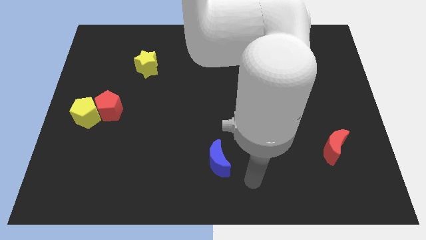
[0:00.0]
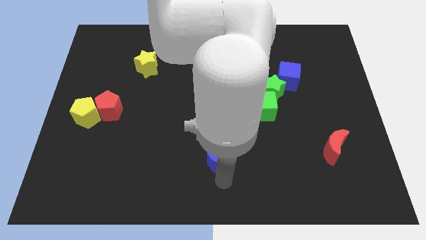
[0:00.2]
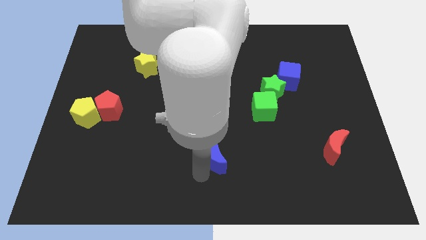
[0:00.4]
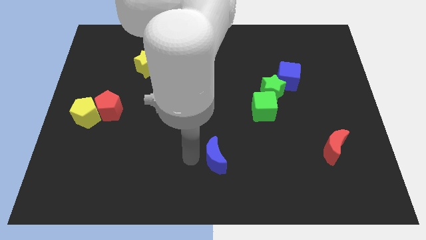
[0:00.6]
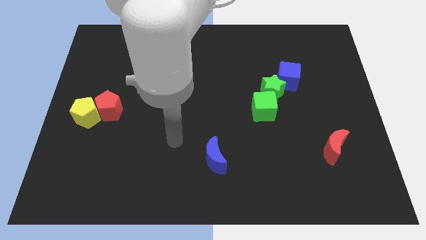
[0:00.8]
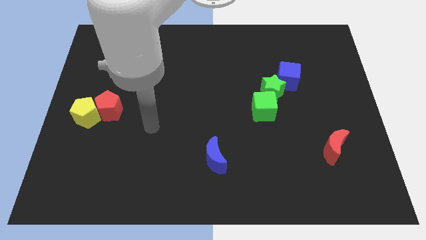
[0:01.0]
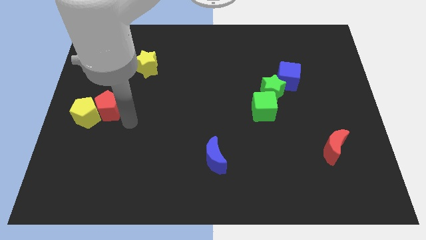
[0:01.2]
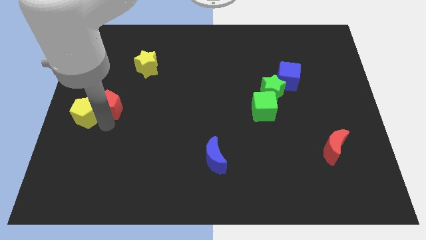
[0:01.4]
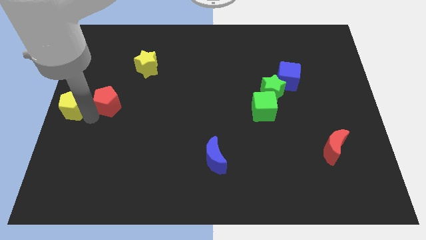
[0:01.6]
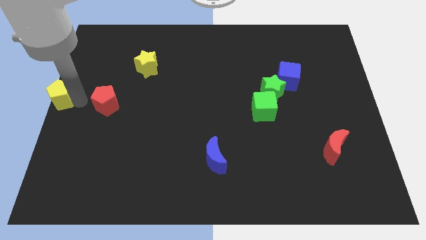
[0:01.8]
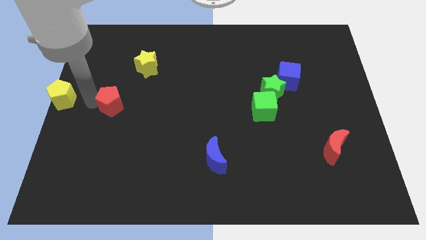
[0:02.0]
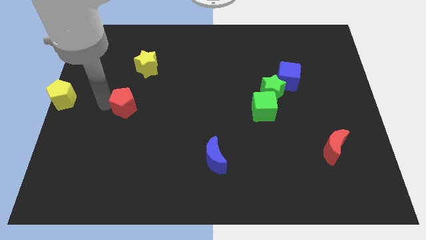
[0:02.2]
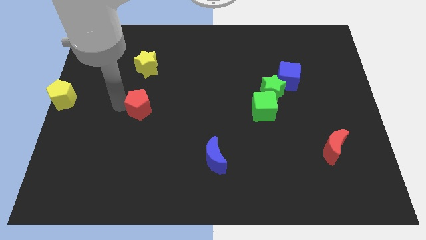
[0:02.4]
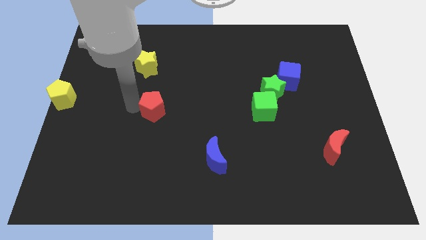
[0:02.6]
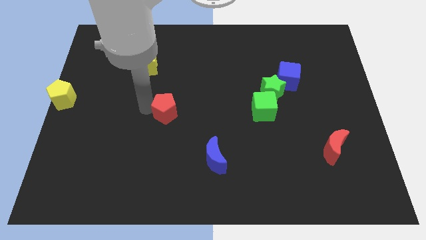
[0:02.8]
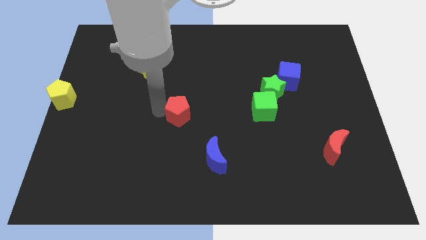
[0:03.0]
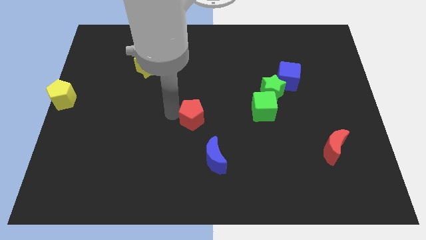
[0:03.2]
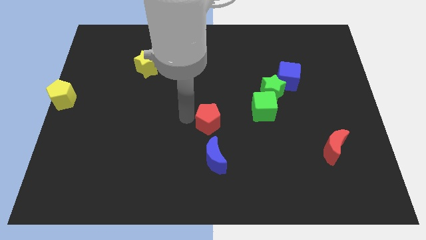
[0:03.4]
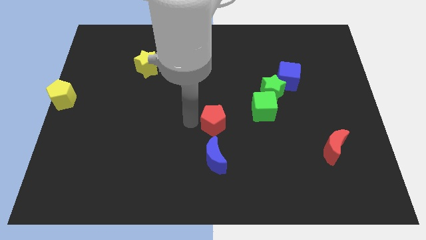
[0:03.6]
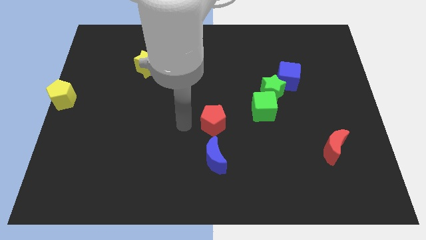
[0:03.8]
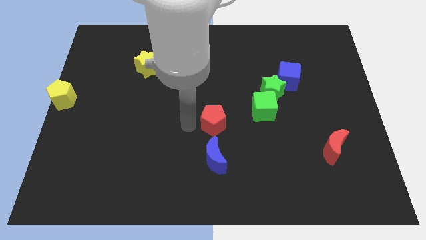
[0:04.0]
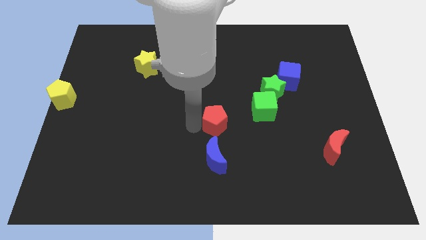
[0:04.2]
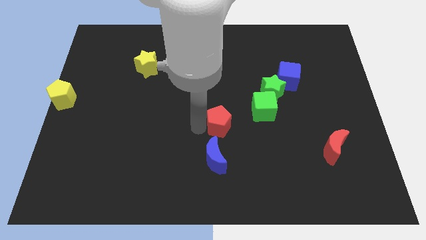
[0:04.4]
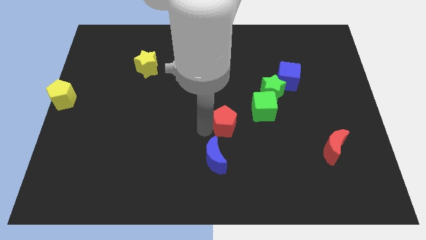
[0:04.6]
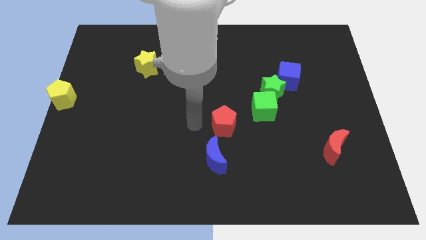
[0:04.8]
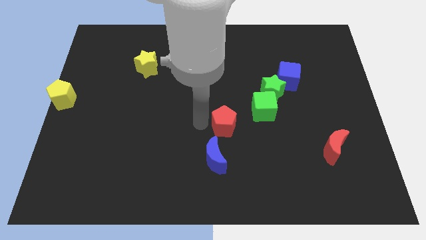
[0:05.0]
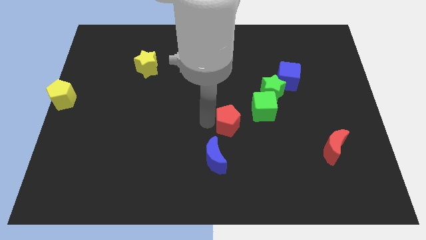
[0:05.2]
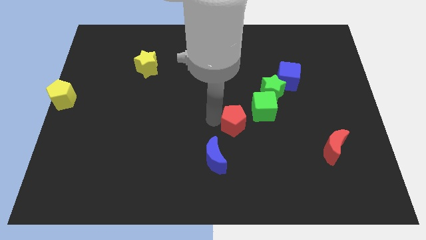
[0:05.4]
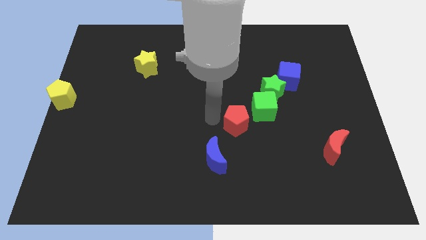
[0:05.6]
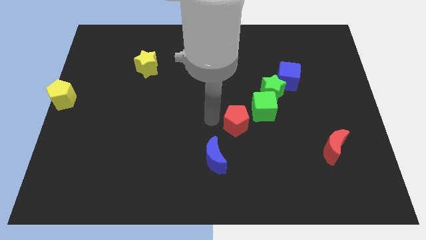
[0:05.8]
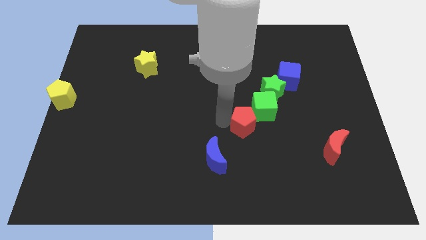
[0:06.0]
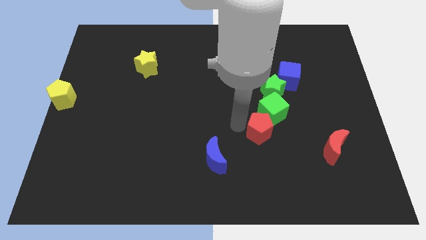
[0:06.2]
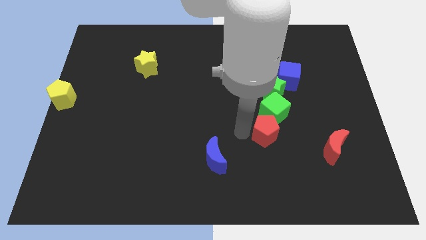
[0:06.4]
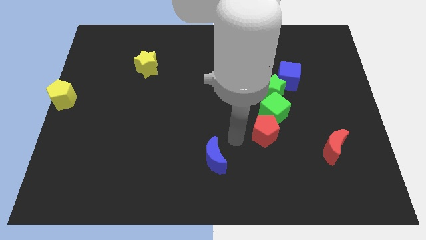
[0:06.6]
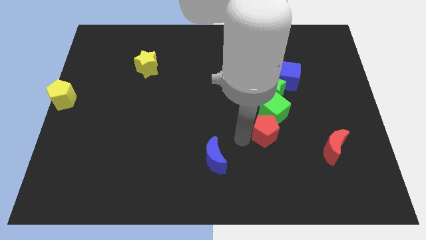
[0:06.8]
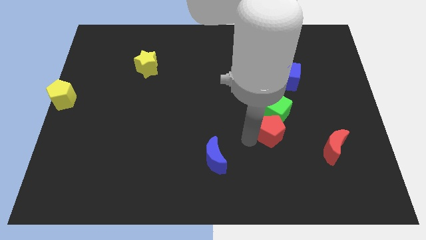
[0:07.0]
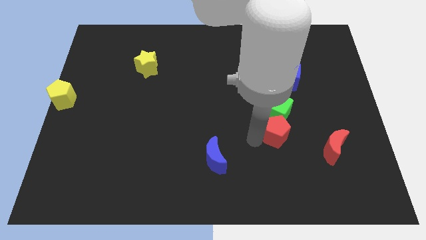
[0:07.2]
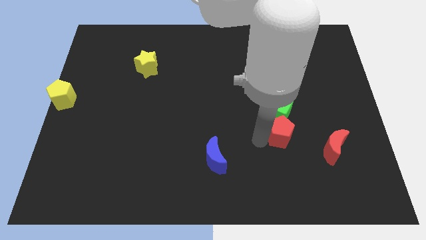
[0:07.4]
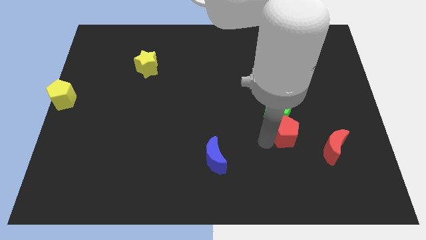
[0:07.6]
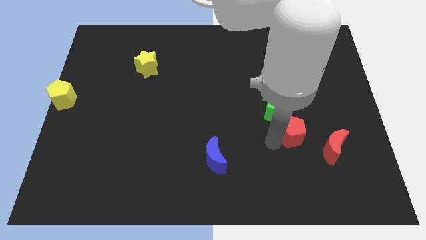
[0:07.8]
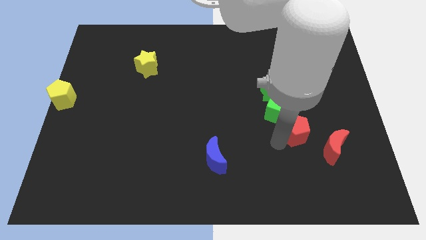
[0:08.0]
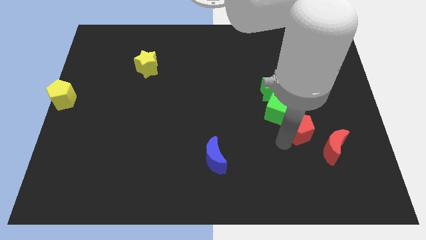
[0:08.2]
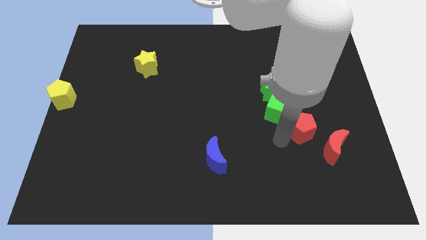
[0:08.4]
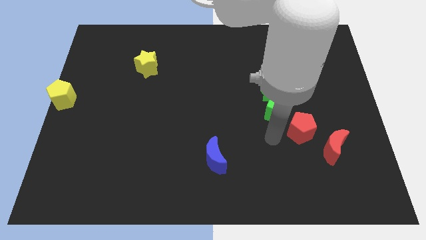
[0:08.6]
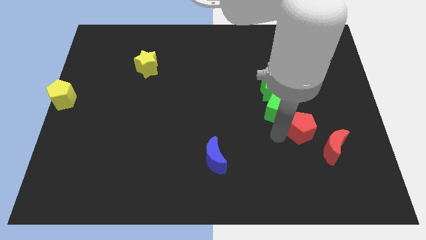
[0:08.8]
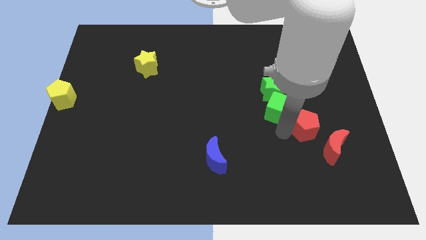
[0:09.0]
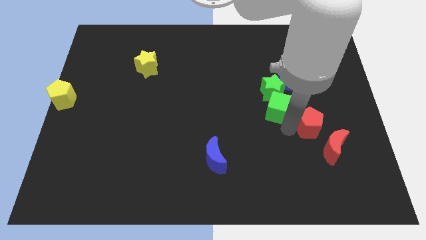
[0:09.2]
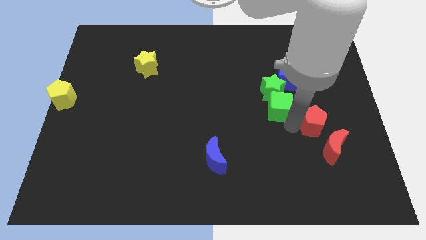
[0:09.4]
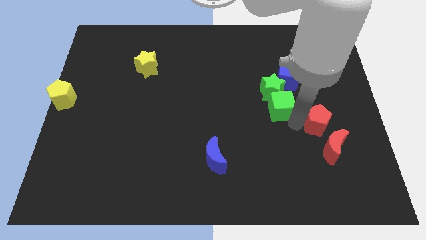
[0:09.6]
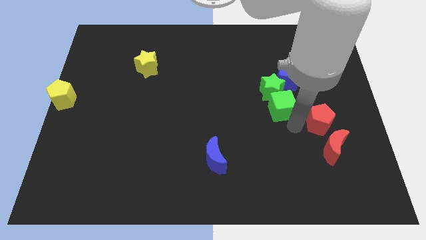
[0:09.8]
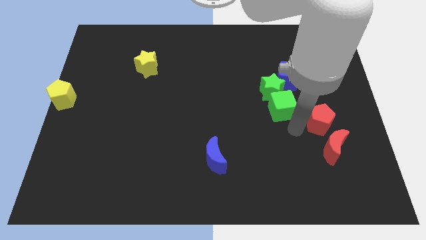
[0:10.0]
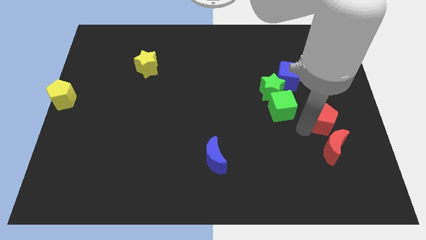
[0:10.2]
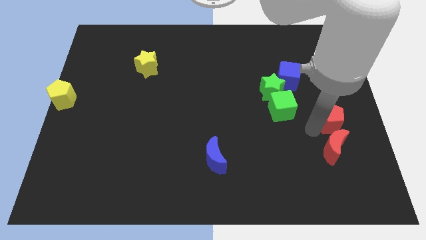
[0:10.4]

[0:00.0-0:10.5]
slide the red pentagon to the center right
